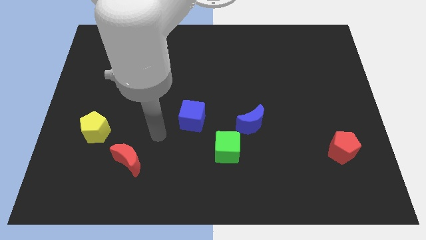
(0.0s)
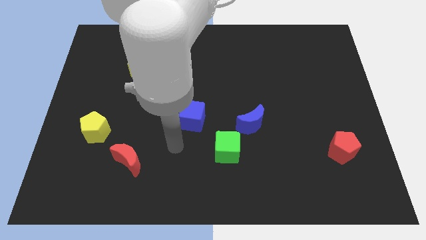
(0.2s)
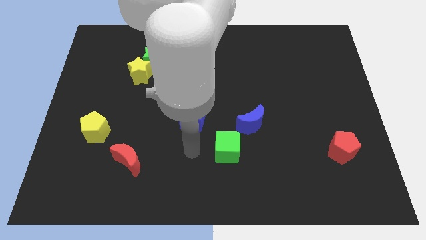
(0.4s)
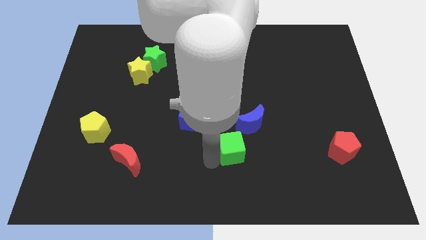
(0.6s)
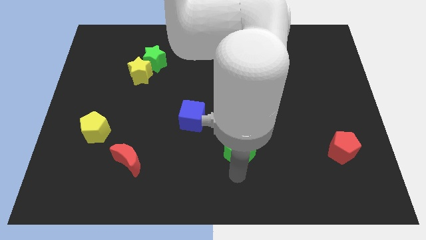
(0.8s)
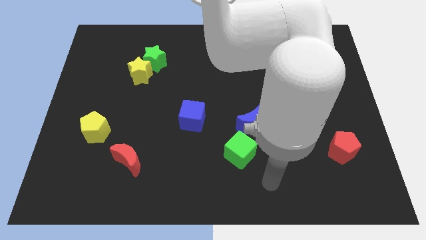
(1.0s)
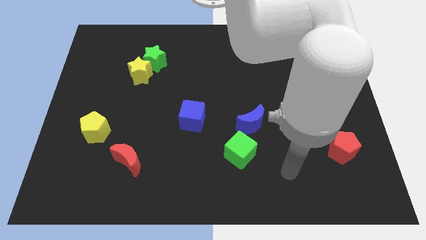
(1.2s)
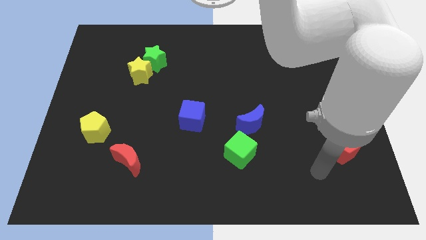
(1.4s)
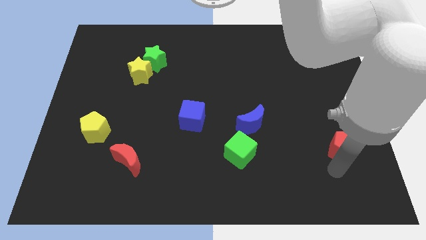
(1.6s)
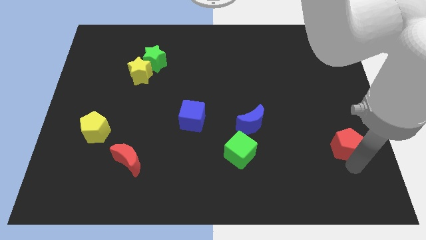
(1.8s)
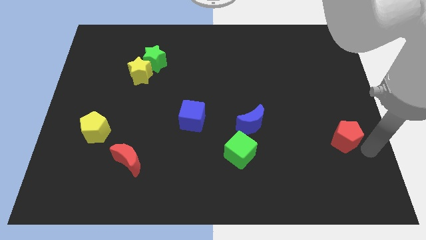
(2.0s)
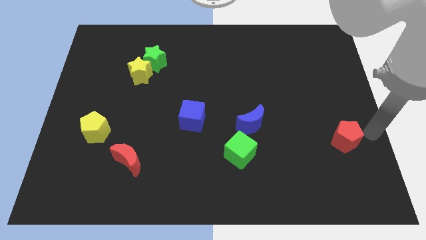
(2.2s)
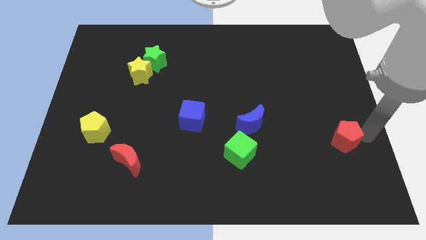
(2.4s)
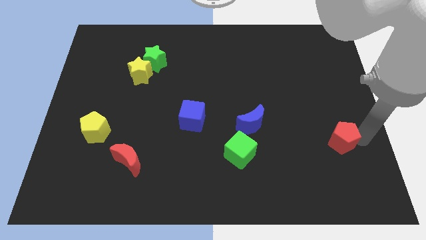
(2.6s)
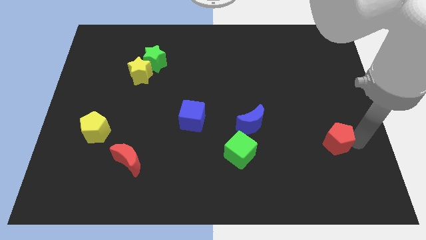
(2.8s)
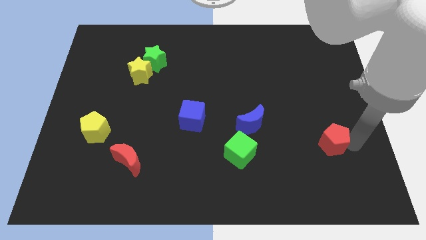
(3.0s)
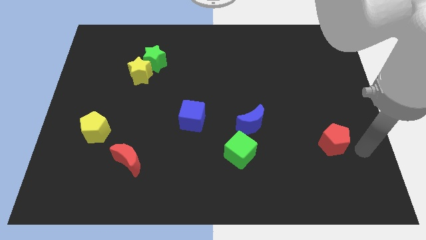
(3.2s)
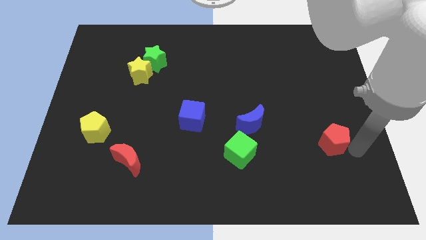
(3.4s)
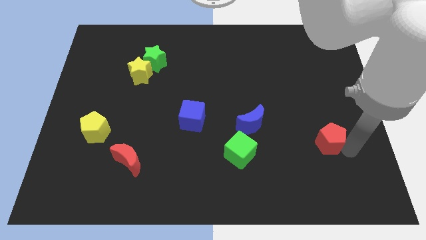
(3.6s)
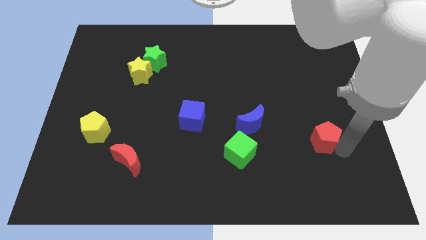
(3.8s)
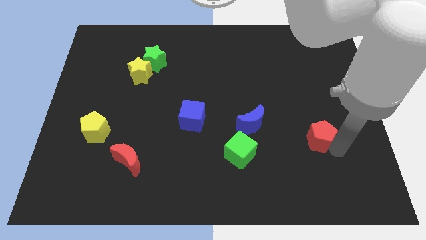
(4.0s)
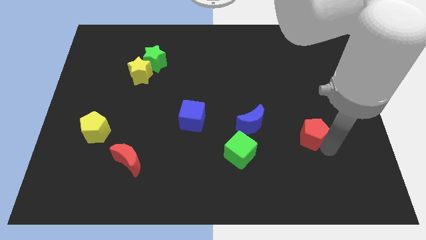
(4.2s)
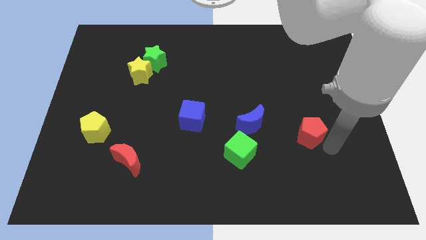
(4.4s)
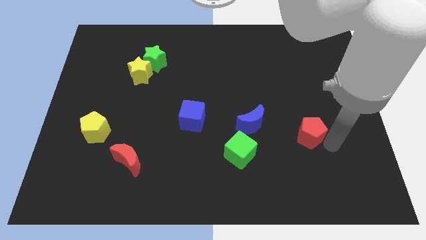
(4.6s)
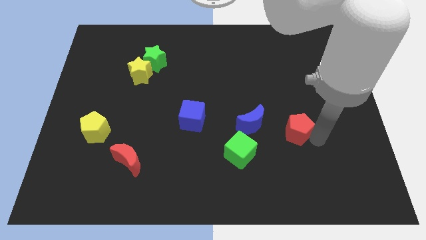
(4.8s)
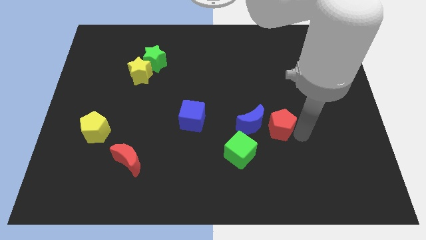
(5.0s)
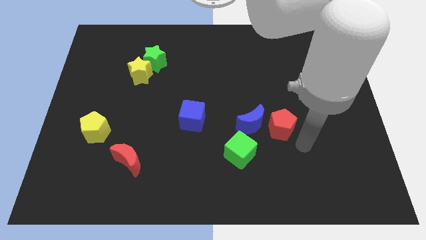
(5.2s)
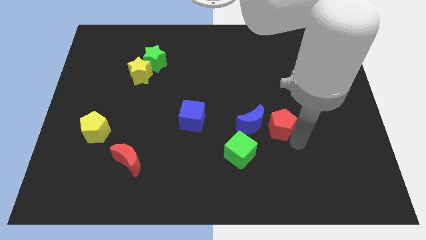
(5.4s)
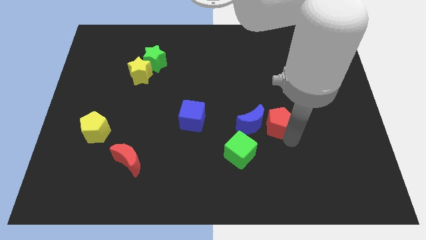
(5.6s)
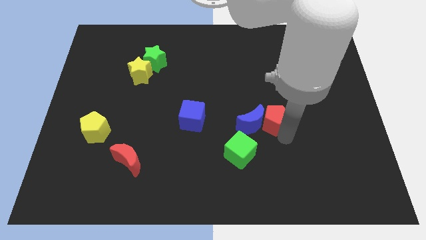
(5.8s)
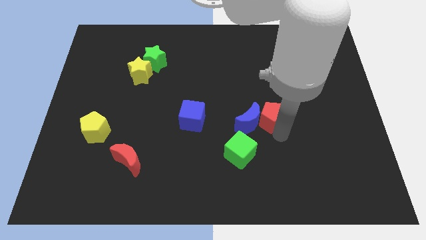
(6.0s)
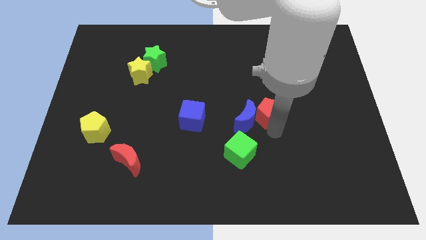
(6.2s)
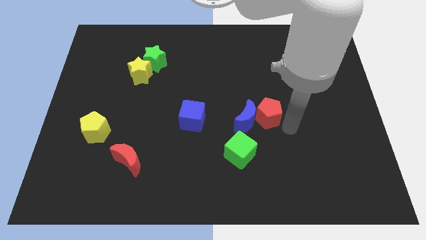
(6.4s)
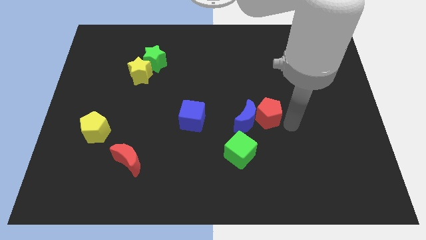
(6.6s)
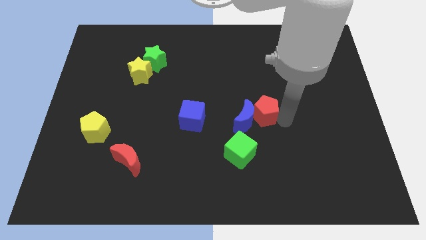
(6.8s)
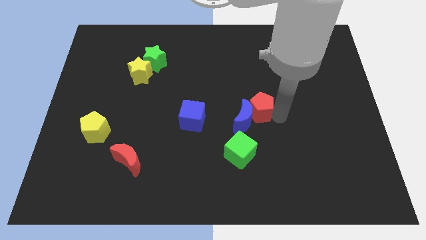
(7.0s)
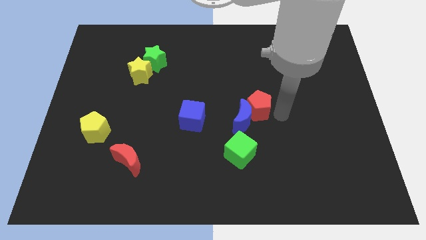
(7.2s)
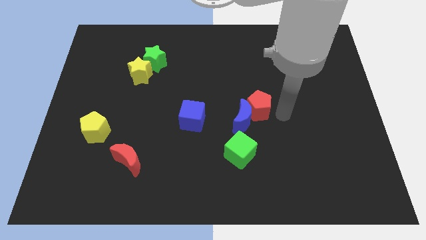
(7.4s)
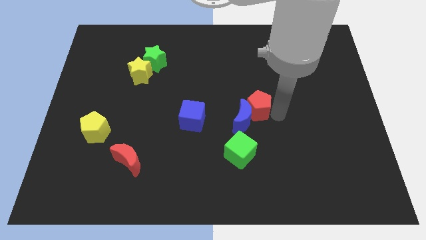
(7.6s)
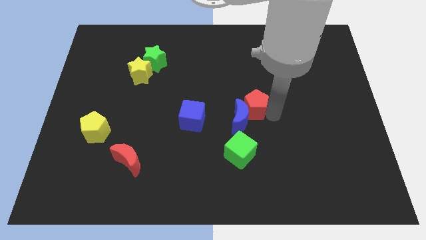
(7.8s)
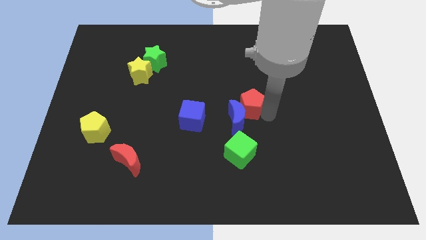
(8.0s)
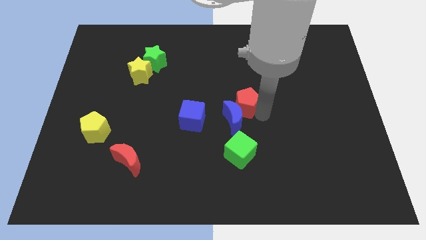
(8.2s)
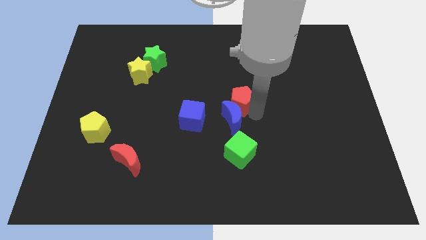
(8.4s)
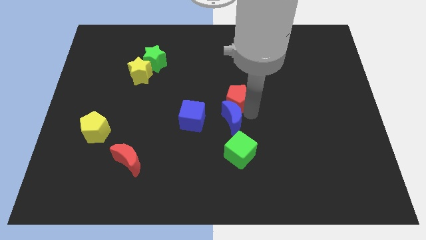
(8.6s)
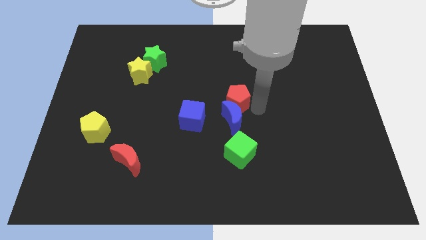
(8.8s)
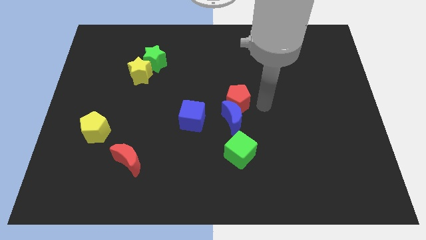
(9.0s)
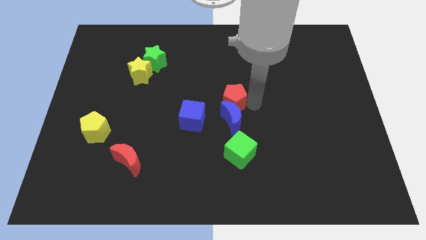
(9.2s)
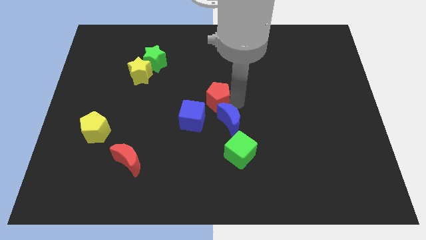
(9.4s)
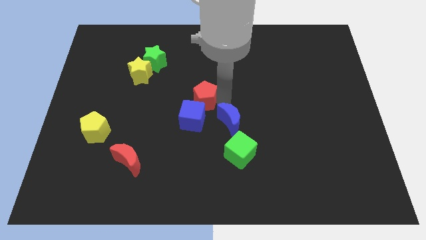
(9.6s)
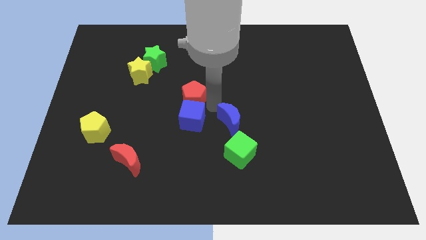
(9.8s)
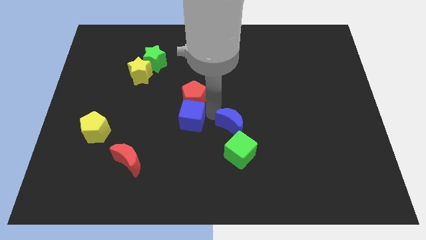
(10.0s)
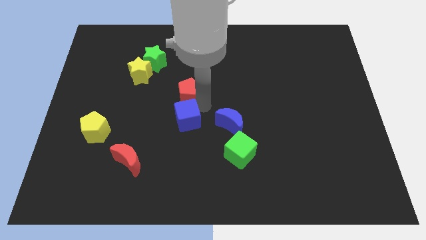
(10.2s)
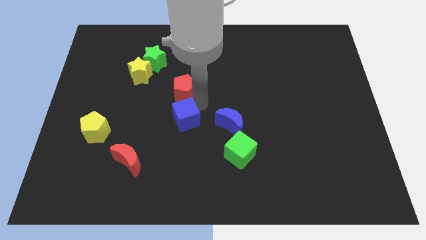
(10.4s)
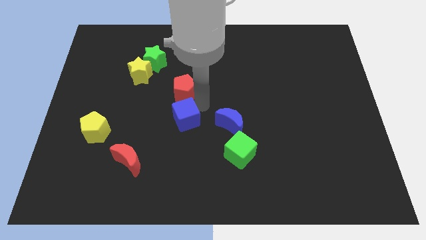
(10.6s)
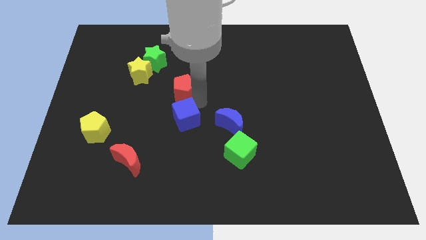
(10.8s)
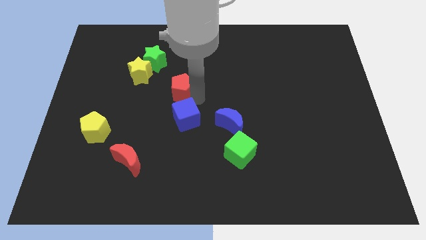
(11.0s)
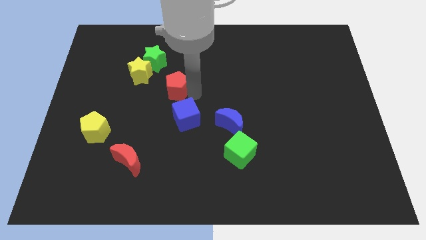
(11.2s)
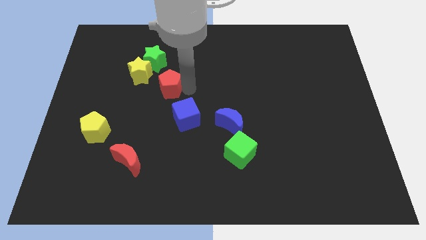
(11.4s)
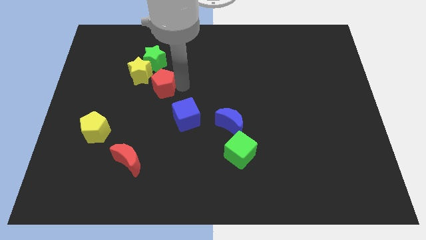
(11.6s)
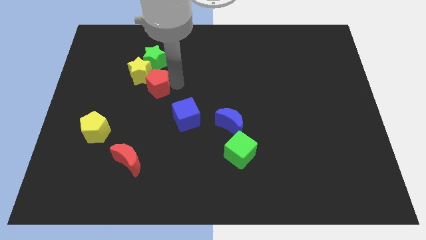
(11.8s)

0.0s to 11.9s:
push the red pentagon to the yellow star

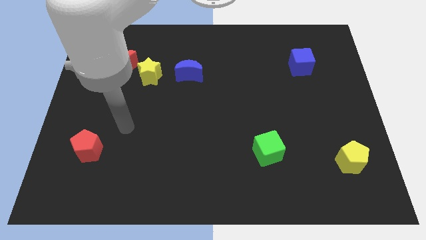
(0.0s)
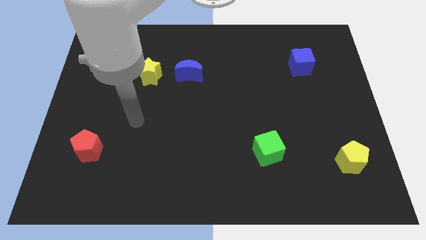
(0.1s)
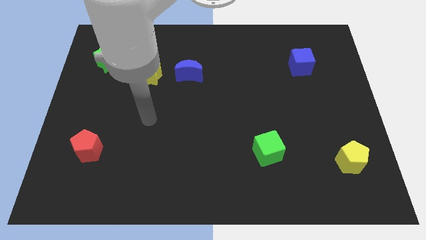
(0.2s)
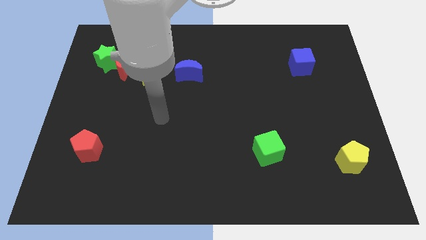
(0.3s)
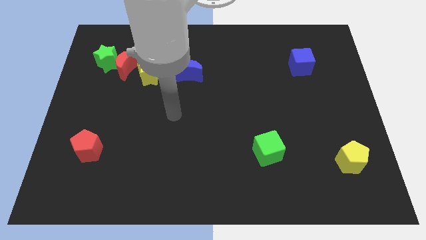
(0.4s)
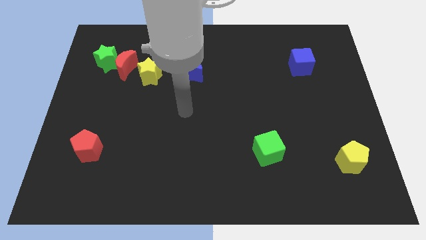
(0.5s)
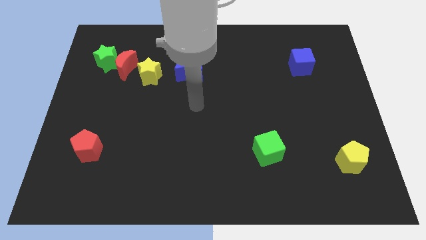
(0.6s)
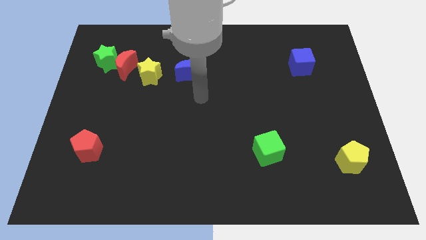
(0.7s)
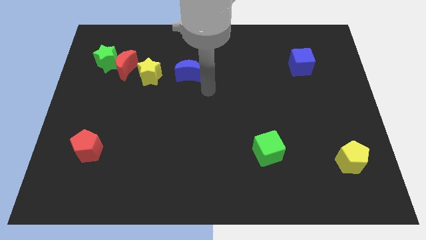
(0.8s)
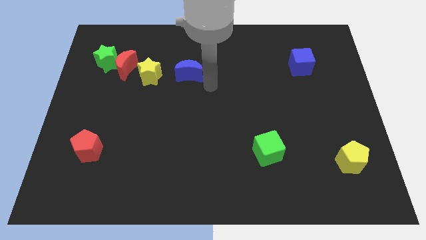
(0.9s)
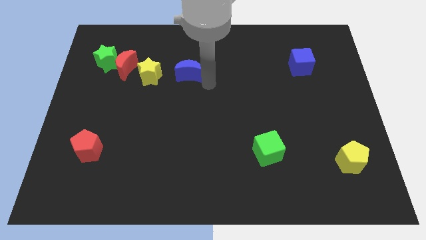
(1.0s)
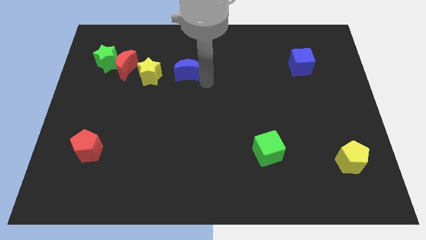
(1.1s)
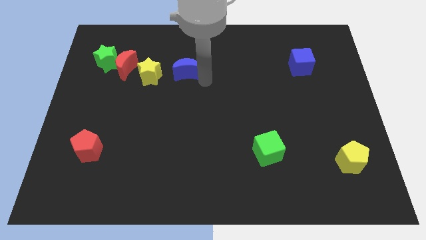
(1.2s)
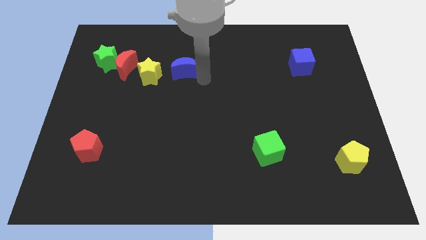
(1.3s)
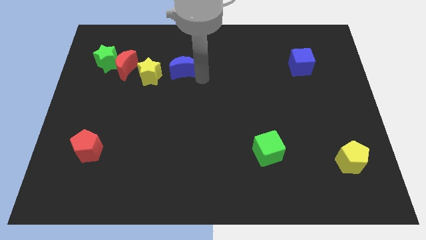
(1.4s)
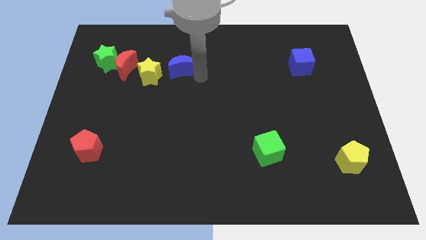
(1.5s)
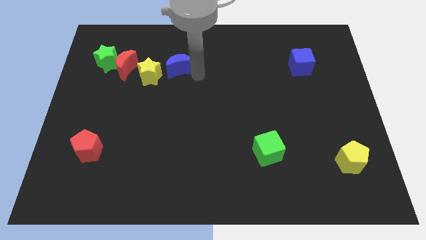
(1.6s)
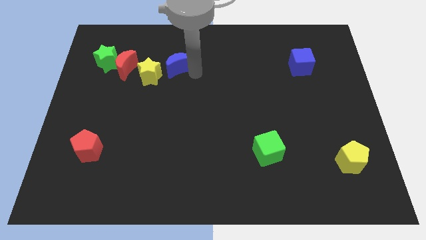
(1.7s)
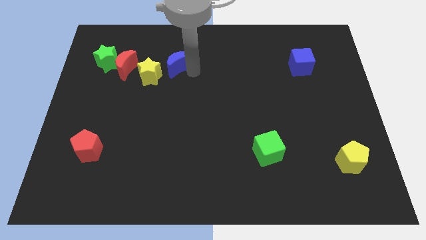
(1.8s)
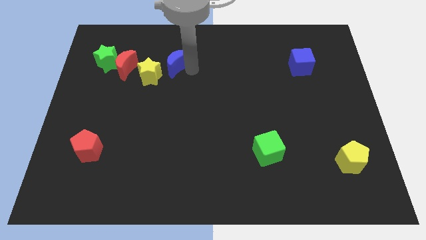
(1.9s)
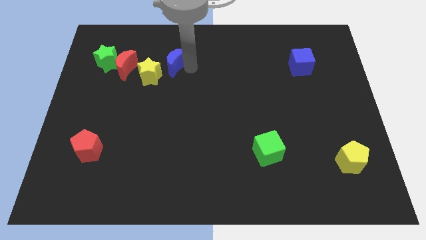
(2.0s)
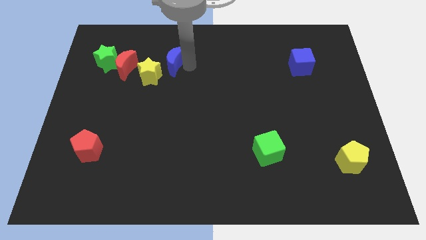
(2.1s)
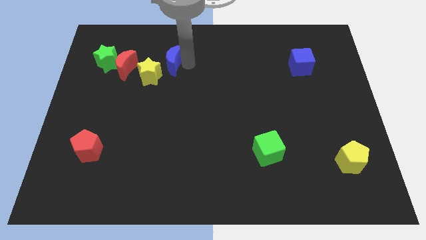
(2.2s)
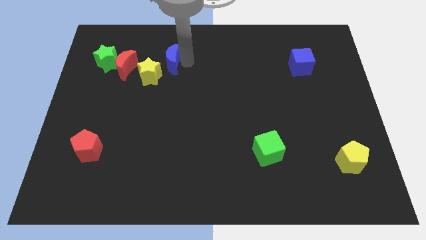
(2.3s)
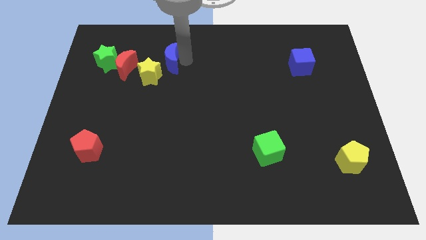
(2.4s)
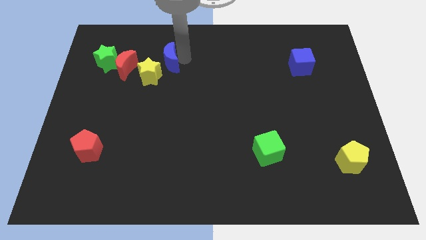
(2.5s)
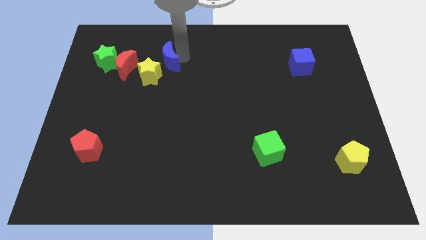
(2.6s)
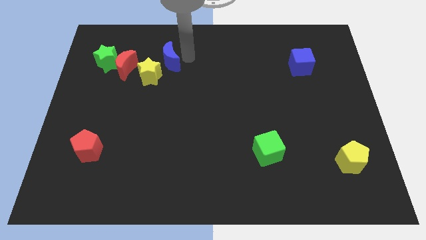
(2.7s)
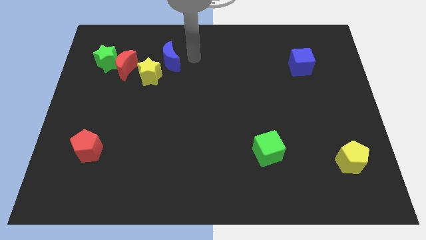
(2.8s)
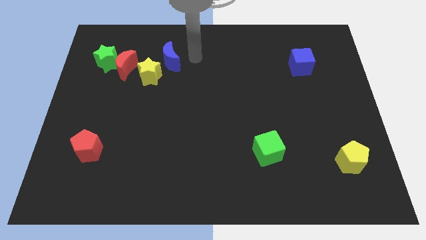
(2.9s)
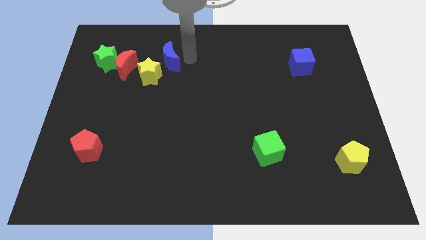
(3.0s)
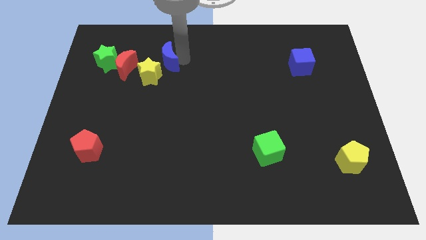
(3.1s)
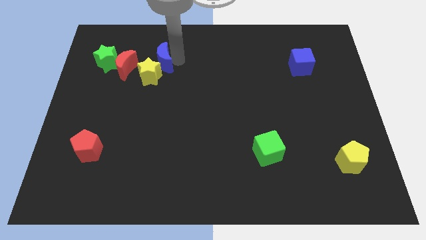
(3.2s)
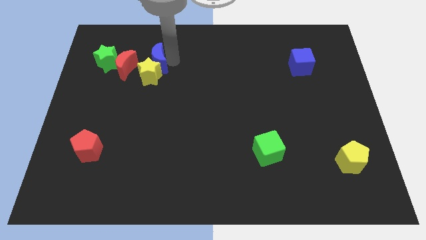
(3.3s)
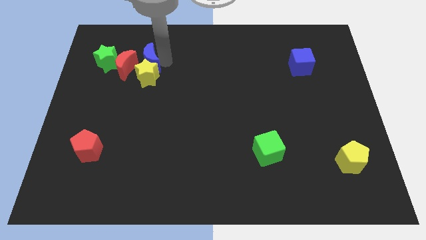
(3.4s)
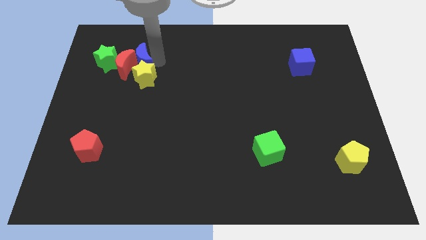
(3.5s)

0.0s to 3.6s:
move the blue moon to the red moon
